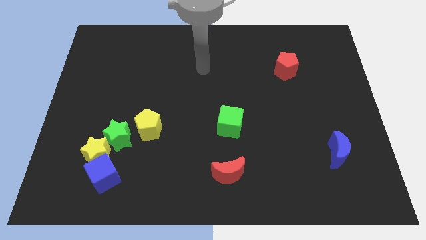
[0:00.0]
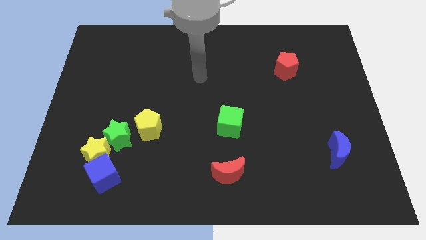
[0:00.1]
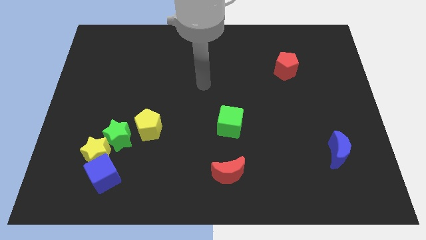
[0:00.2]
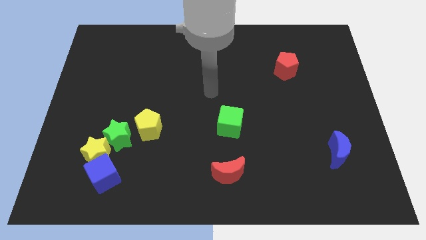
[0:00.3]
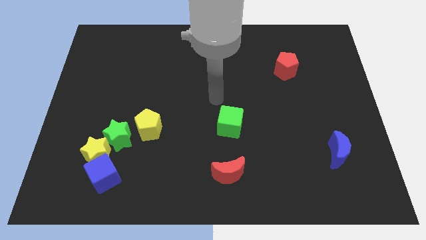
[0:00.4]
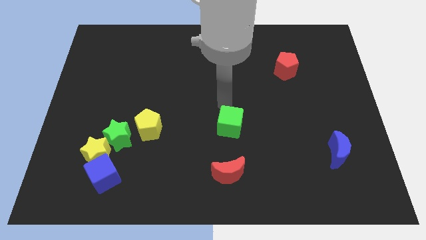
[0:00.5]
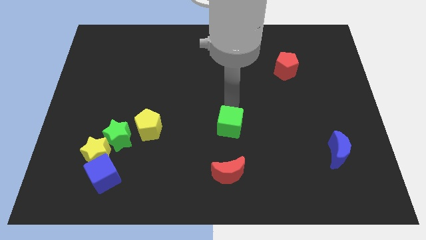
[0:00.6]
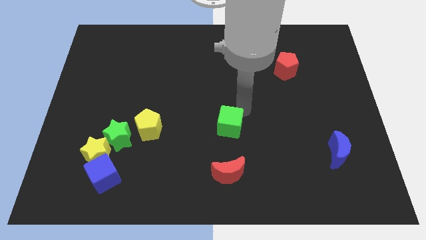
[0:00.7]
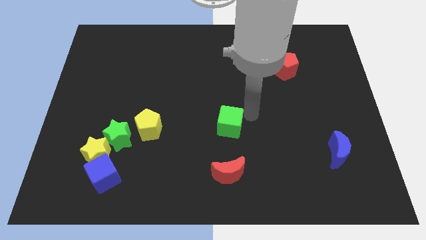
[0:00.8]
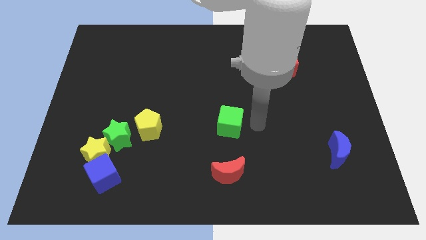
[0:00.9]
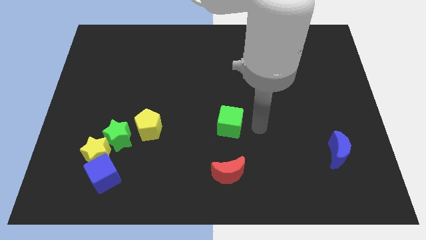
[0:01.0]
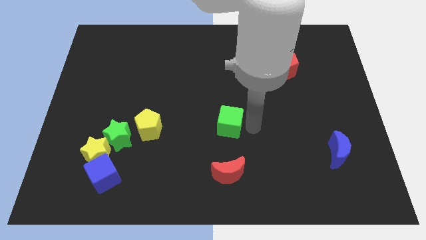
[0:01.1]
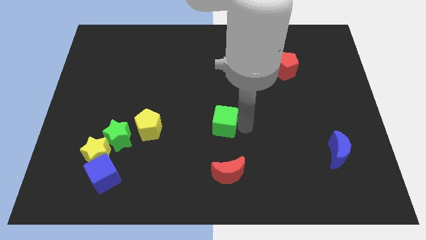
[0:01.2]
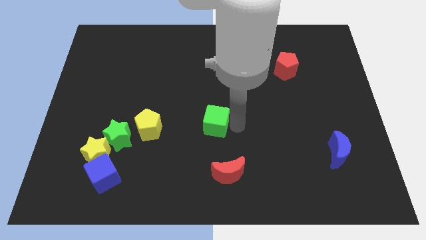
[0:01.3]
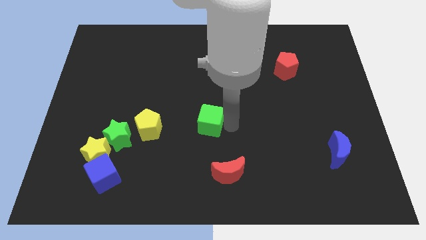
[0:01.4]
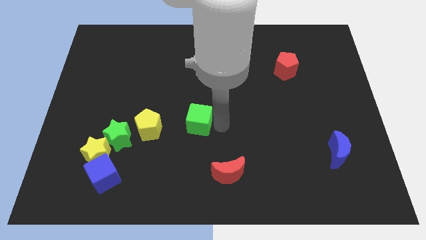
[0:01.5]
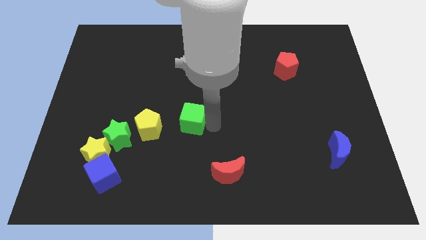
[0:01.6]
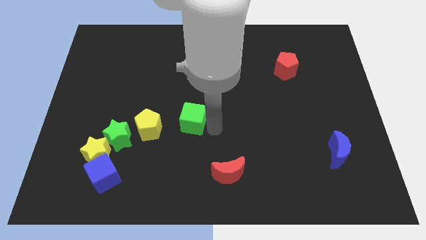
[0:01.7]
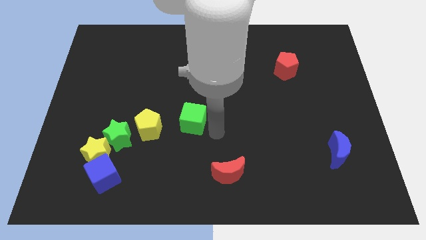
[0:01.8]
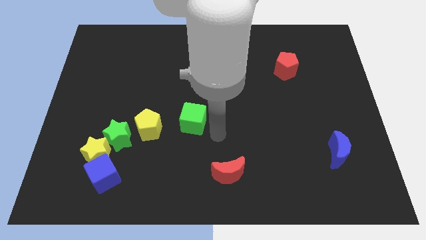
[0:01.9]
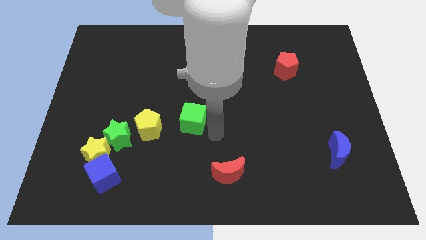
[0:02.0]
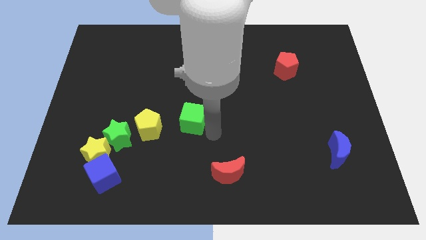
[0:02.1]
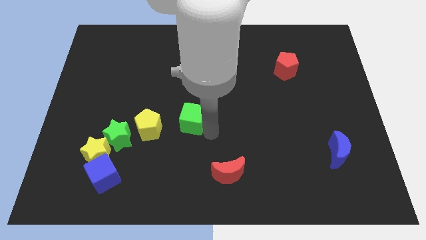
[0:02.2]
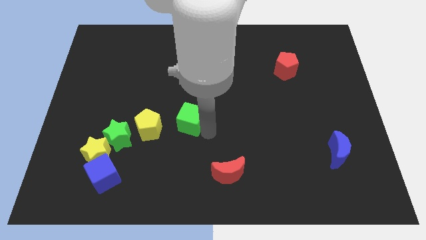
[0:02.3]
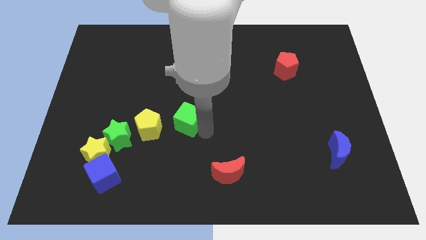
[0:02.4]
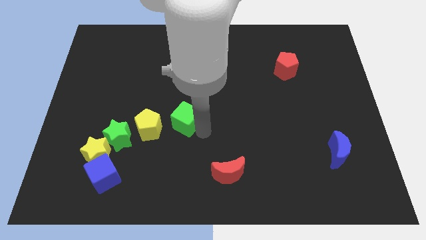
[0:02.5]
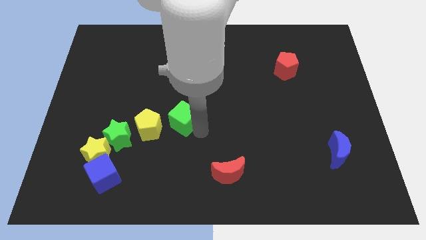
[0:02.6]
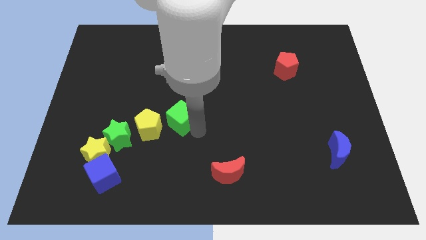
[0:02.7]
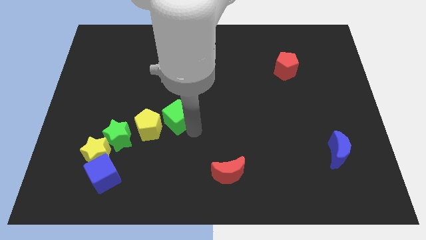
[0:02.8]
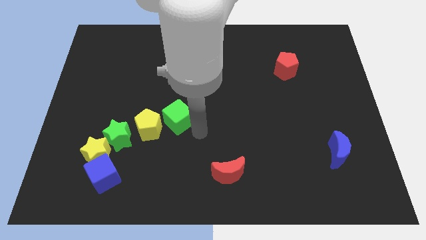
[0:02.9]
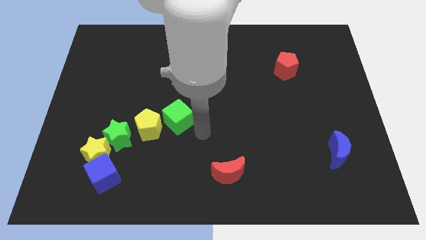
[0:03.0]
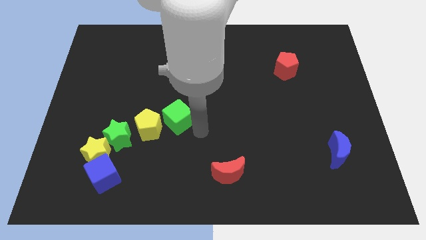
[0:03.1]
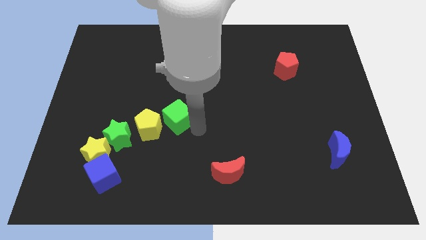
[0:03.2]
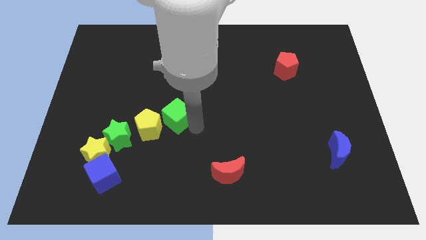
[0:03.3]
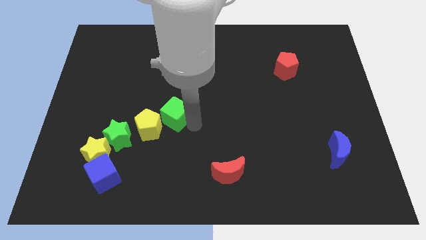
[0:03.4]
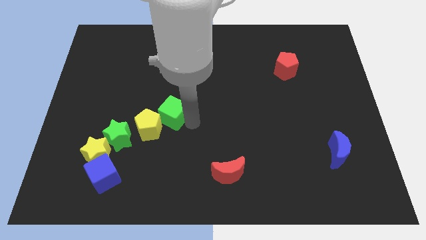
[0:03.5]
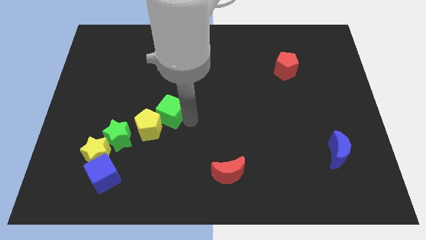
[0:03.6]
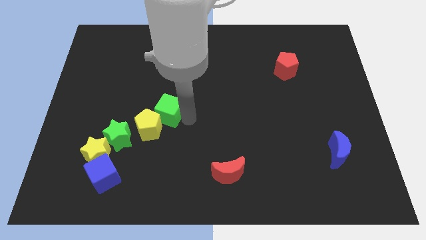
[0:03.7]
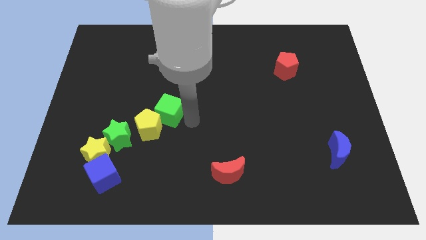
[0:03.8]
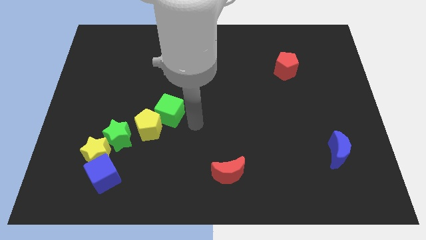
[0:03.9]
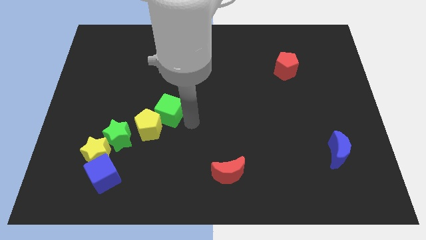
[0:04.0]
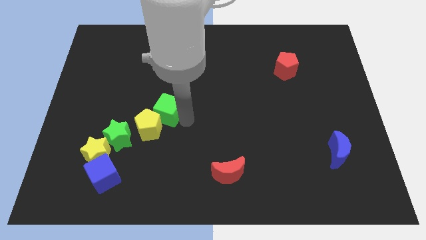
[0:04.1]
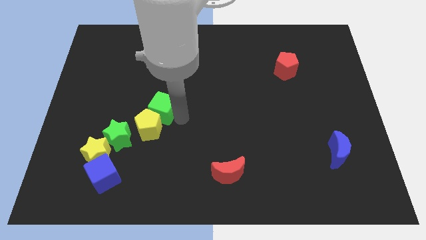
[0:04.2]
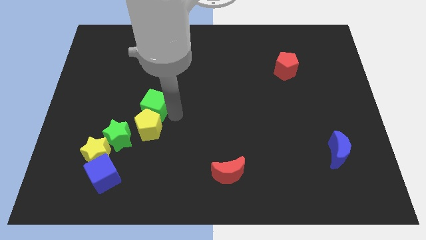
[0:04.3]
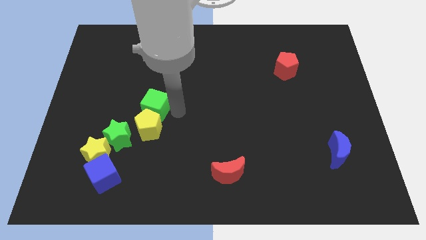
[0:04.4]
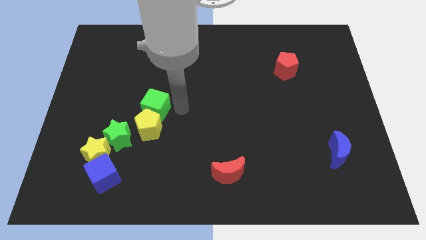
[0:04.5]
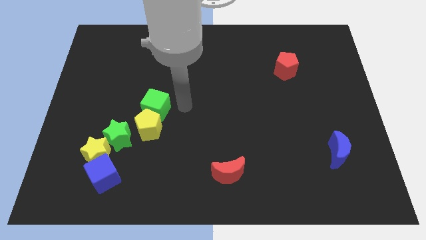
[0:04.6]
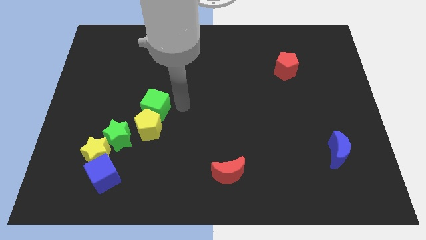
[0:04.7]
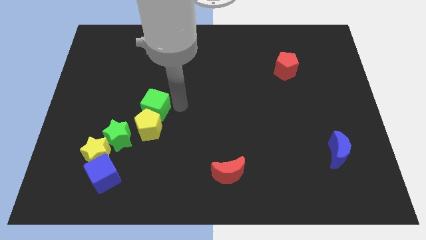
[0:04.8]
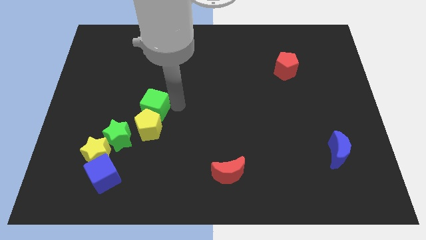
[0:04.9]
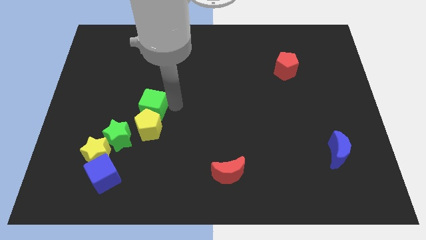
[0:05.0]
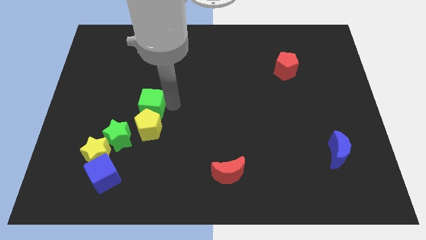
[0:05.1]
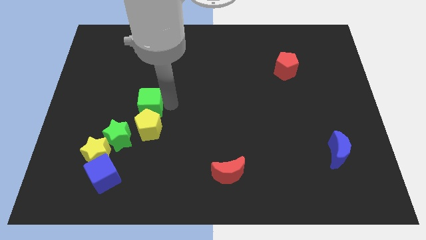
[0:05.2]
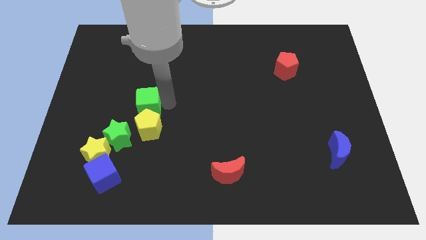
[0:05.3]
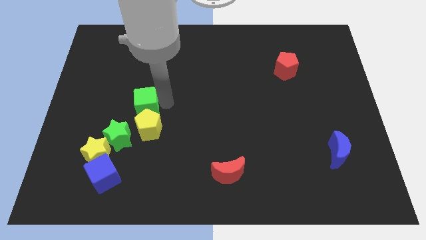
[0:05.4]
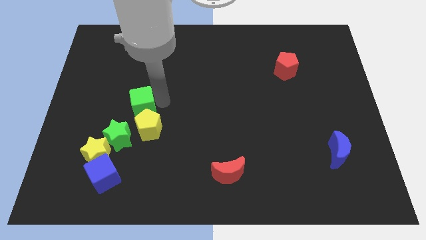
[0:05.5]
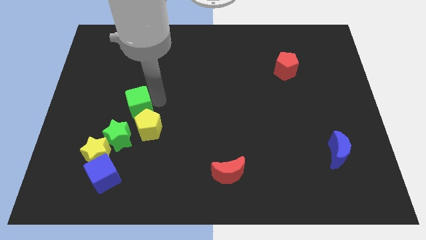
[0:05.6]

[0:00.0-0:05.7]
move the green cube left

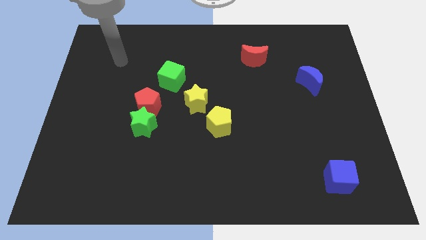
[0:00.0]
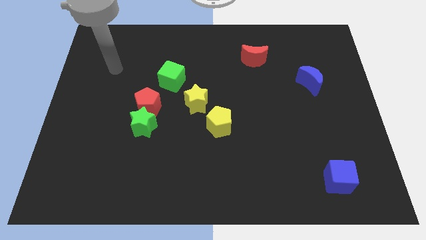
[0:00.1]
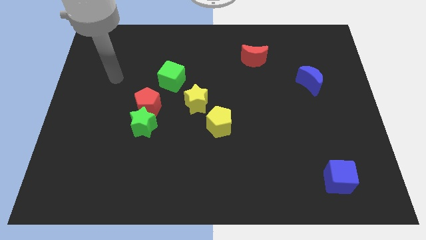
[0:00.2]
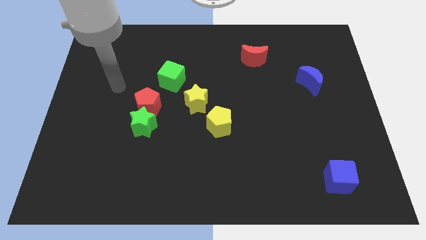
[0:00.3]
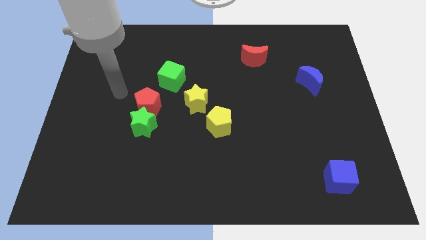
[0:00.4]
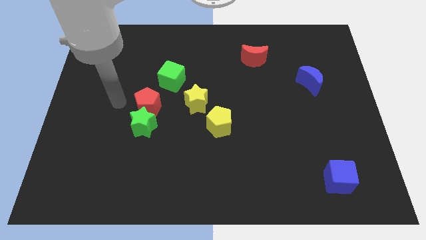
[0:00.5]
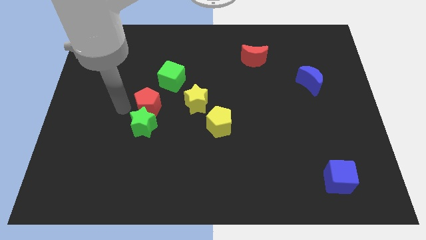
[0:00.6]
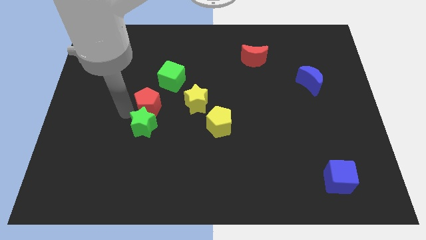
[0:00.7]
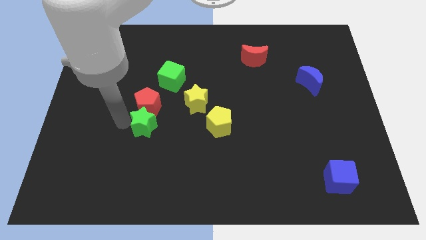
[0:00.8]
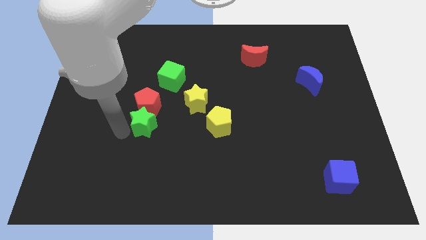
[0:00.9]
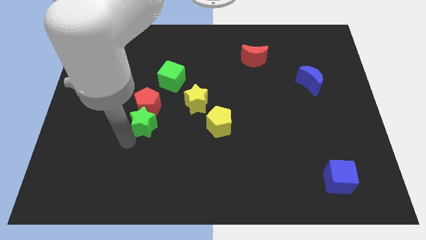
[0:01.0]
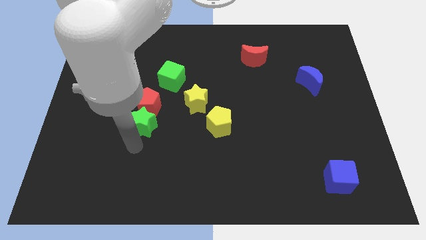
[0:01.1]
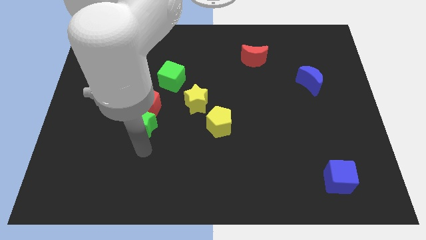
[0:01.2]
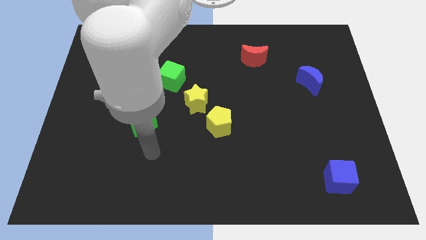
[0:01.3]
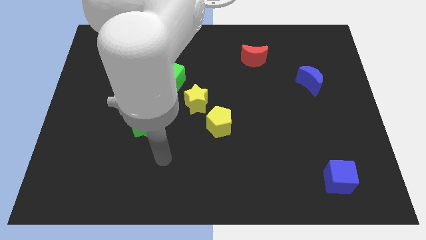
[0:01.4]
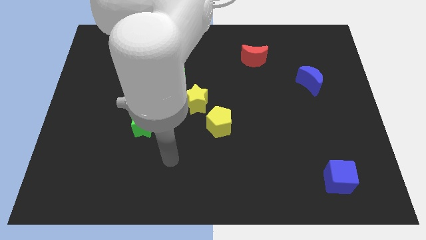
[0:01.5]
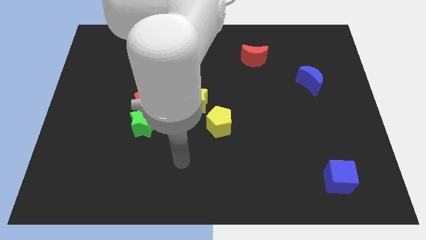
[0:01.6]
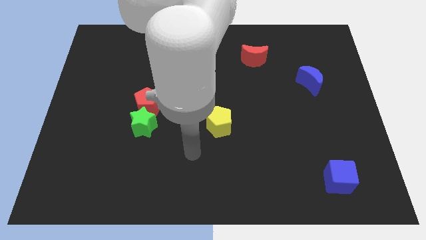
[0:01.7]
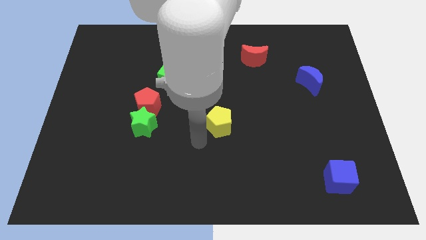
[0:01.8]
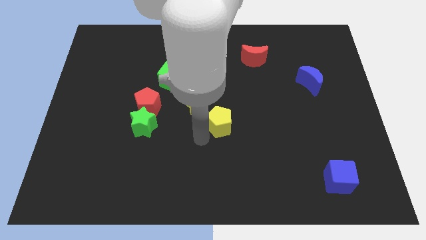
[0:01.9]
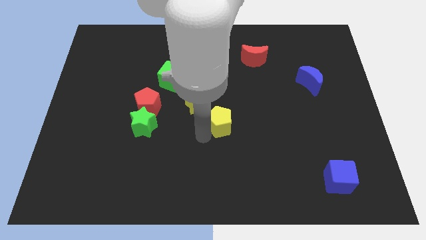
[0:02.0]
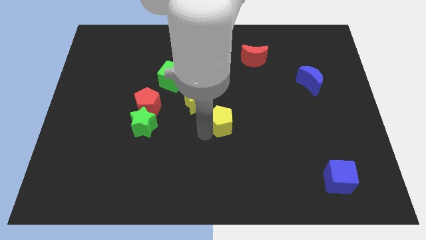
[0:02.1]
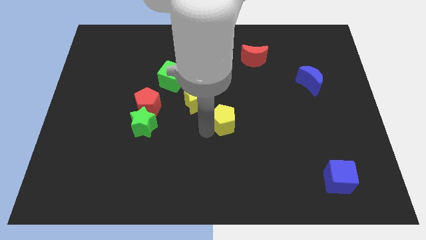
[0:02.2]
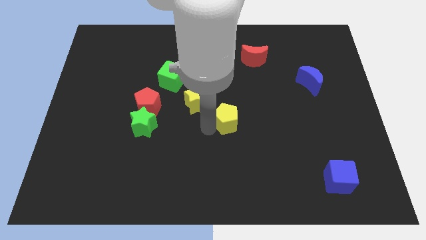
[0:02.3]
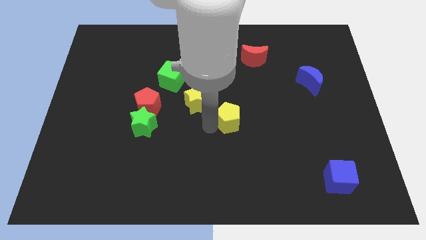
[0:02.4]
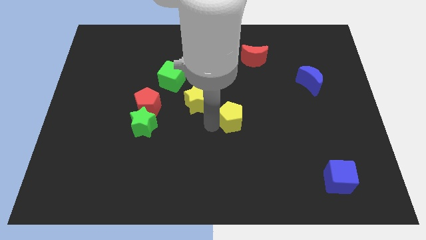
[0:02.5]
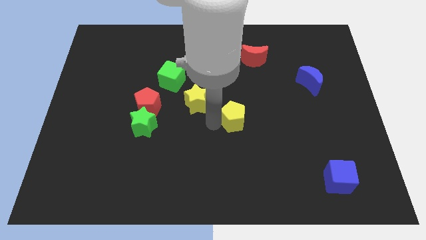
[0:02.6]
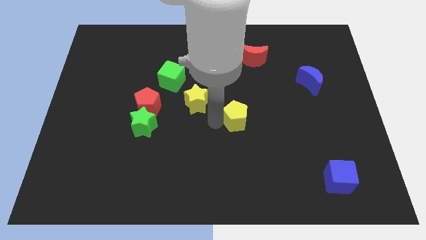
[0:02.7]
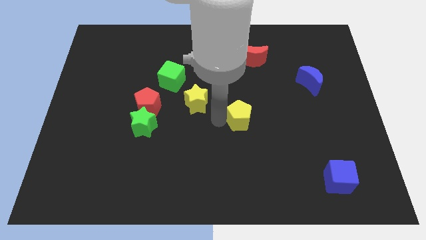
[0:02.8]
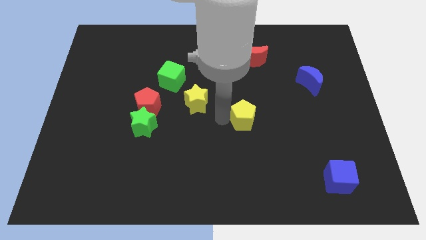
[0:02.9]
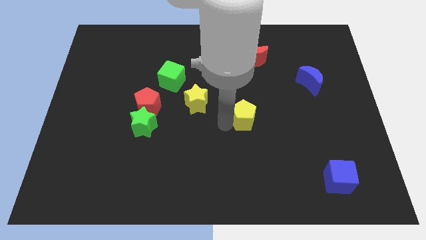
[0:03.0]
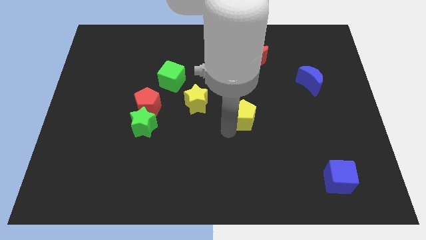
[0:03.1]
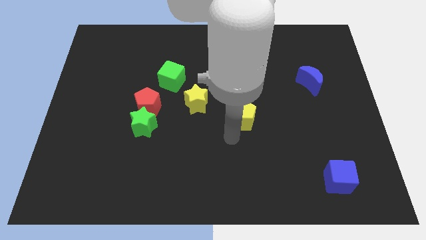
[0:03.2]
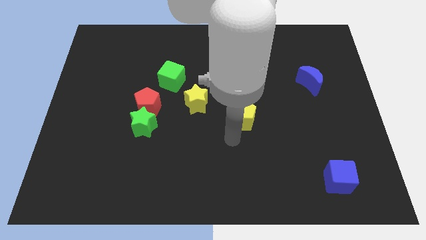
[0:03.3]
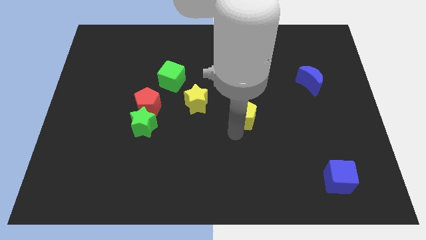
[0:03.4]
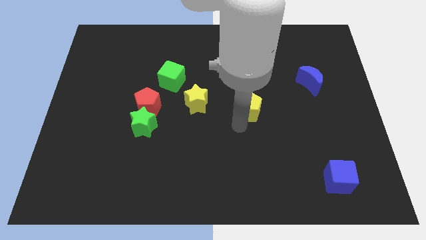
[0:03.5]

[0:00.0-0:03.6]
move the yellow pentagon diagonally up and right a little
